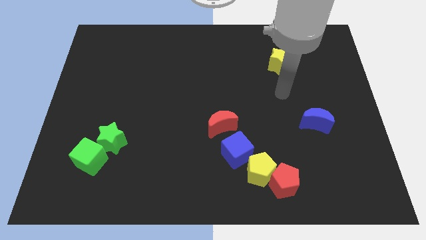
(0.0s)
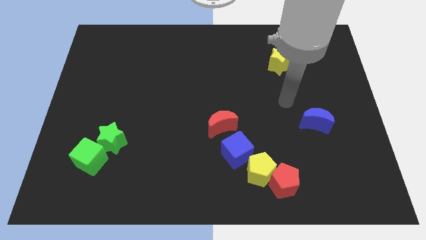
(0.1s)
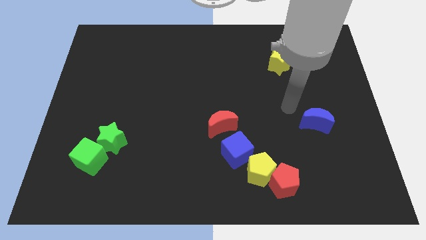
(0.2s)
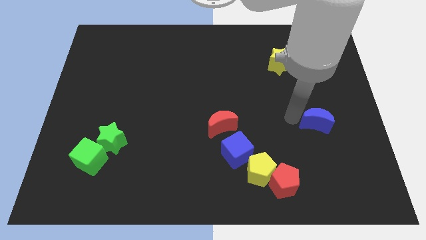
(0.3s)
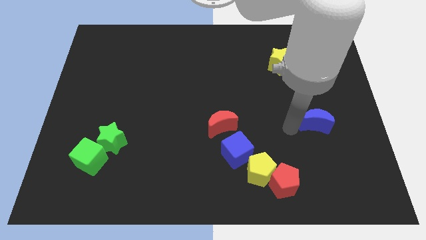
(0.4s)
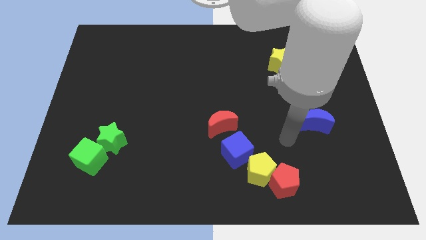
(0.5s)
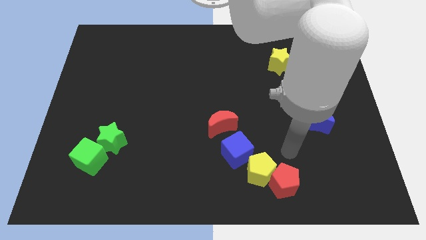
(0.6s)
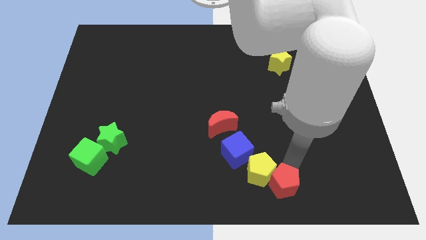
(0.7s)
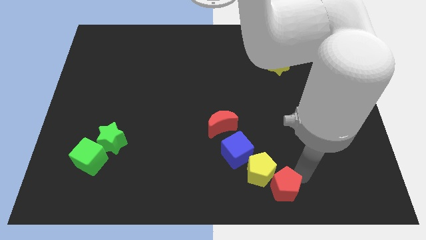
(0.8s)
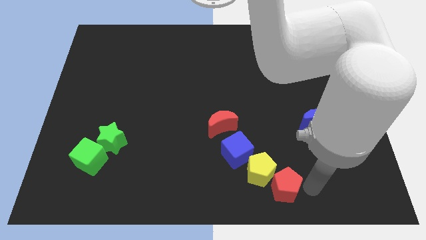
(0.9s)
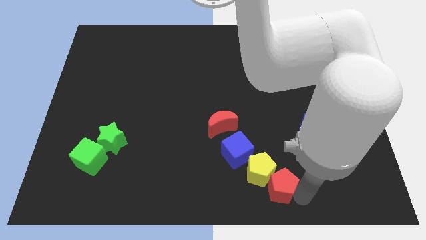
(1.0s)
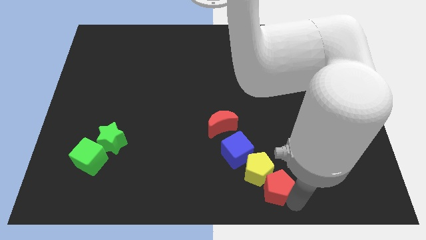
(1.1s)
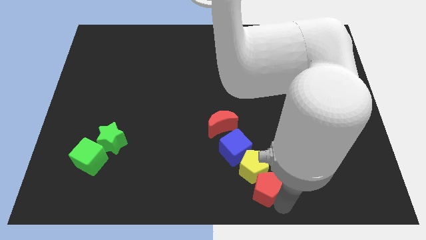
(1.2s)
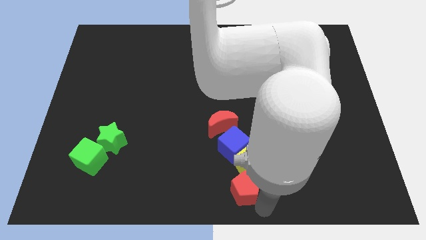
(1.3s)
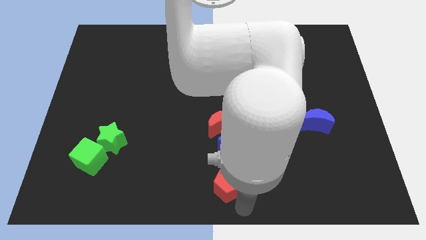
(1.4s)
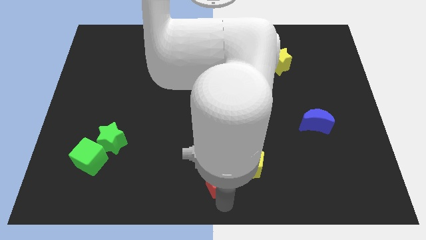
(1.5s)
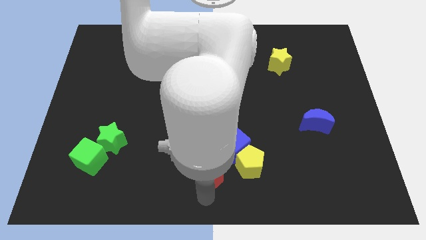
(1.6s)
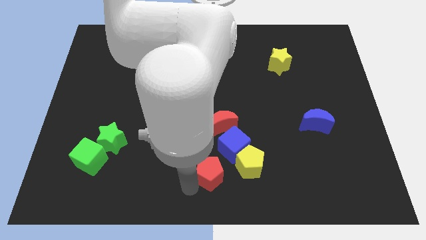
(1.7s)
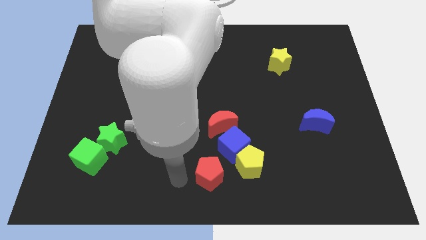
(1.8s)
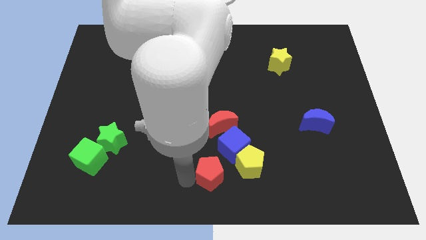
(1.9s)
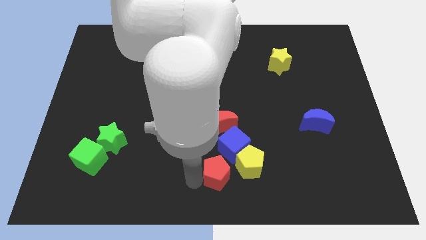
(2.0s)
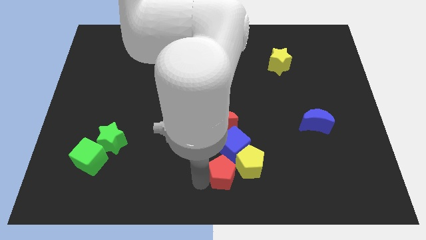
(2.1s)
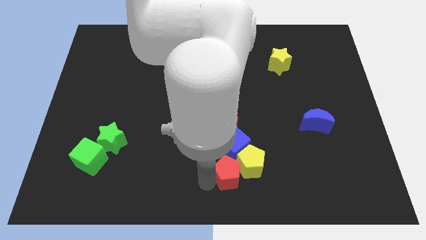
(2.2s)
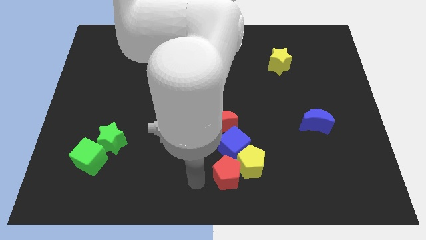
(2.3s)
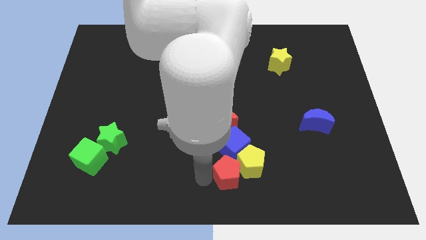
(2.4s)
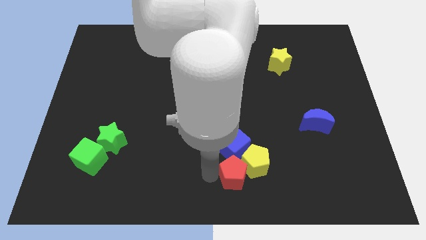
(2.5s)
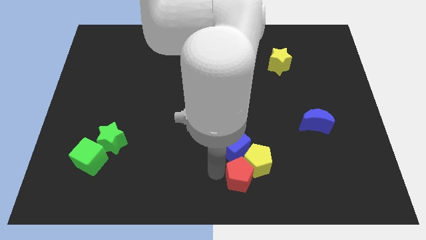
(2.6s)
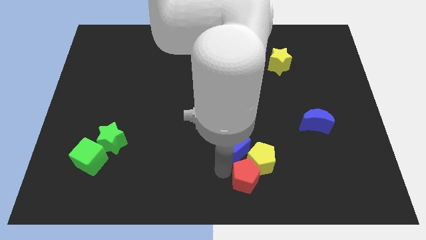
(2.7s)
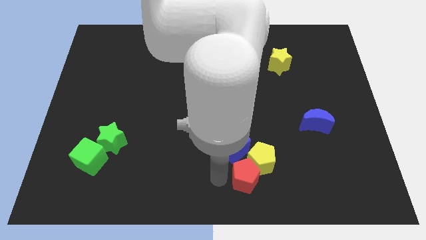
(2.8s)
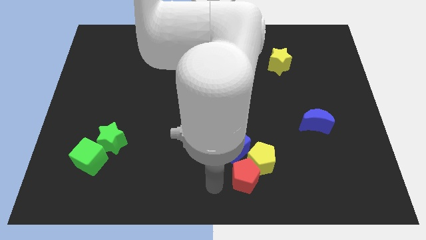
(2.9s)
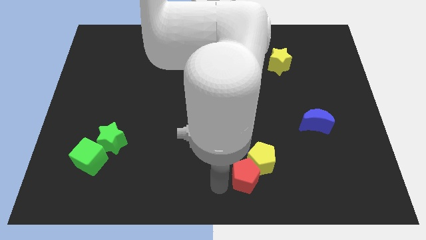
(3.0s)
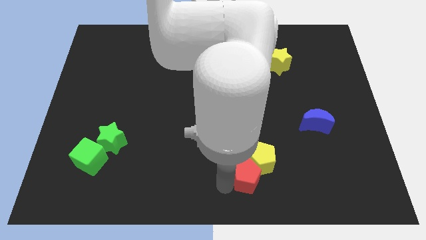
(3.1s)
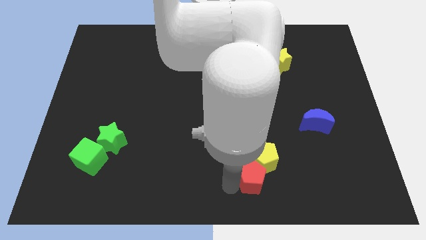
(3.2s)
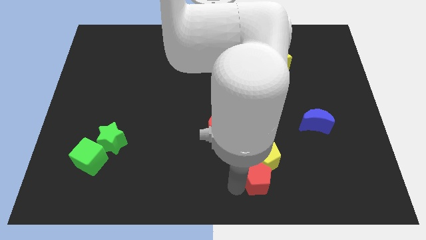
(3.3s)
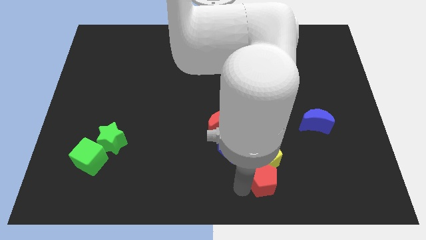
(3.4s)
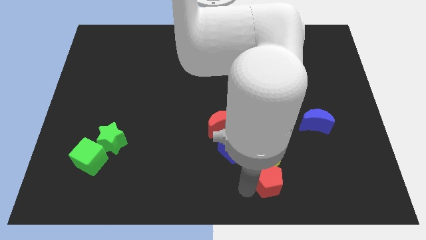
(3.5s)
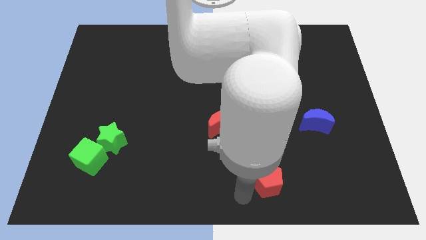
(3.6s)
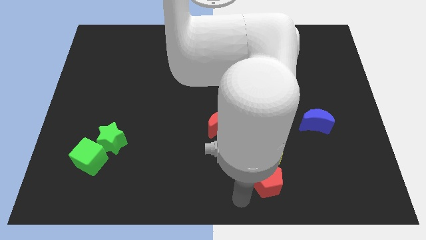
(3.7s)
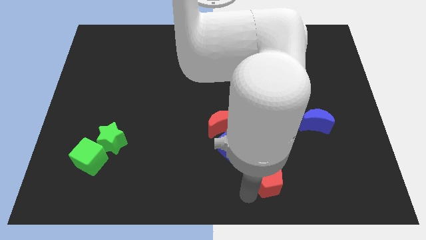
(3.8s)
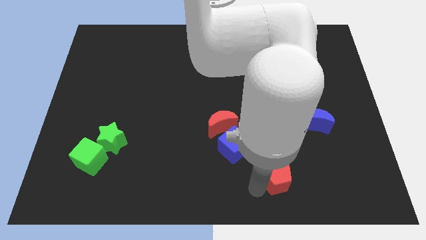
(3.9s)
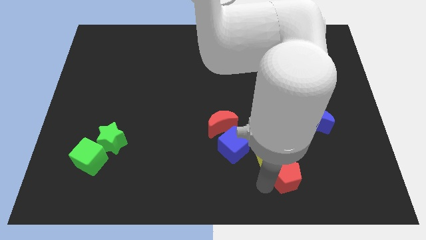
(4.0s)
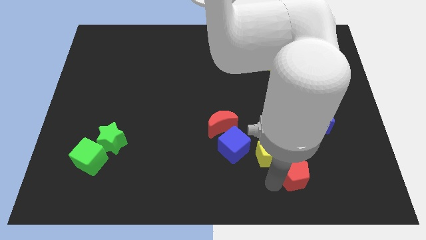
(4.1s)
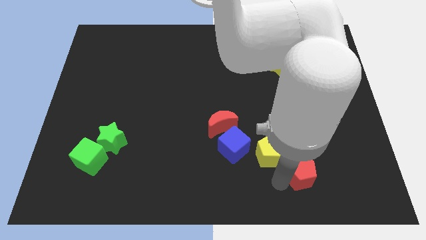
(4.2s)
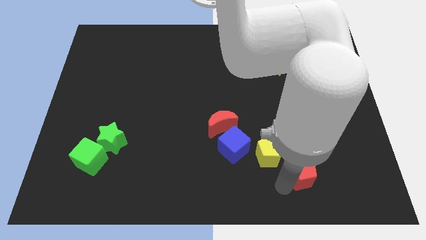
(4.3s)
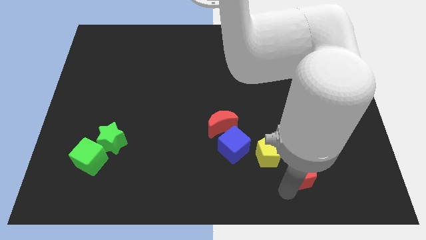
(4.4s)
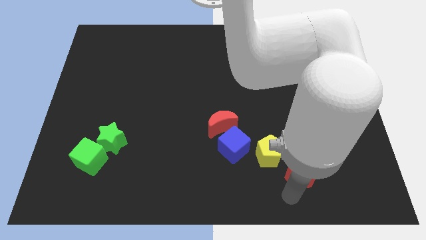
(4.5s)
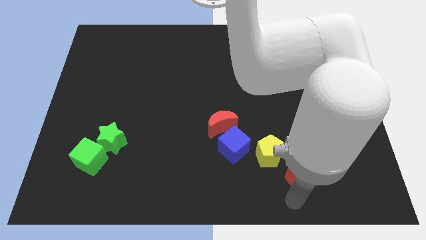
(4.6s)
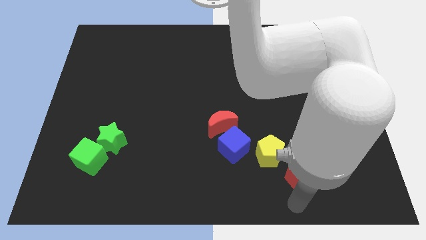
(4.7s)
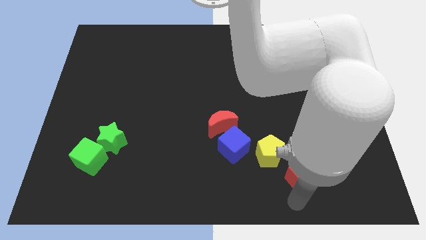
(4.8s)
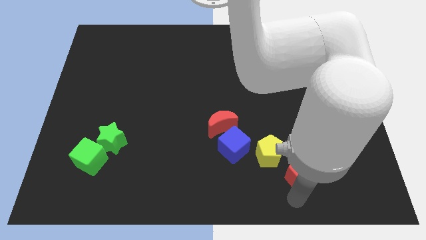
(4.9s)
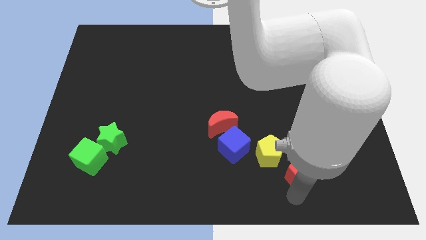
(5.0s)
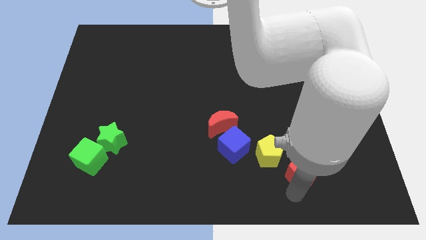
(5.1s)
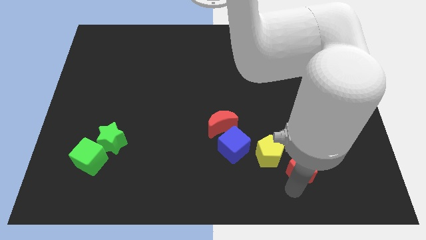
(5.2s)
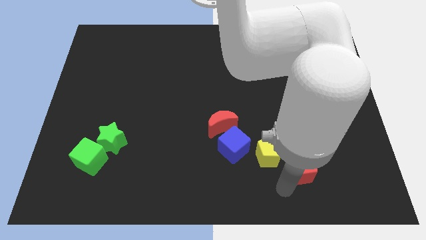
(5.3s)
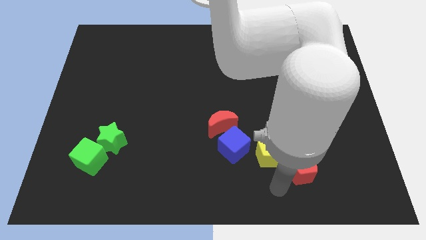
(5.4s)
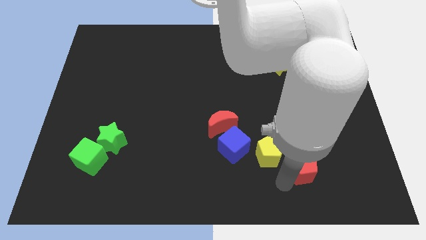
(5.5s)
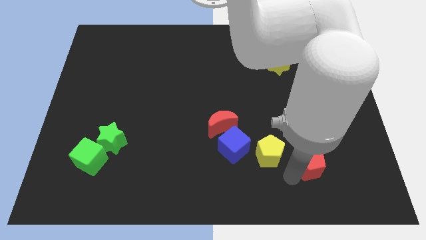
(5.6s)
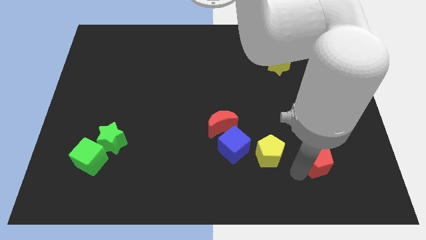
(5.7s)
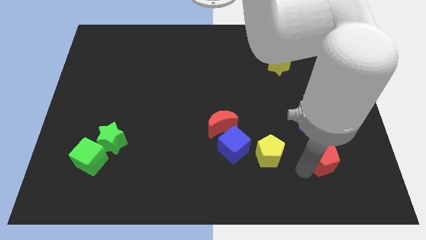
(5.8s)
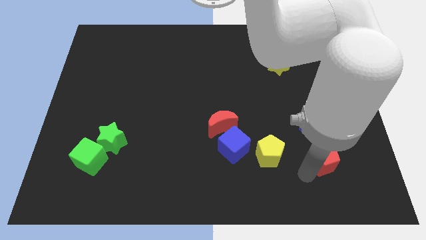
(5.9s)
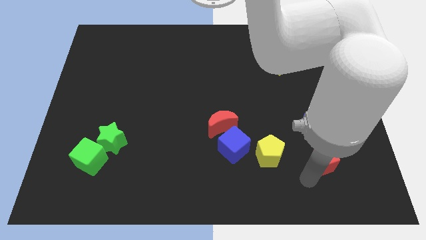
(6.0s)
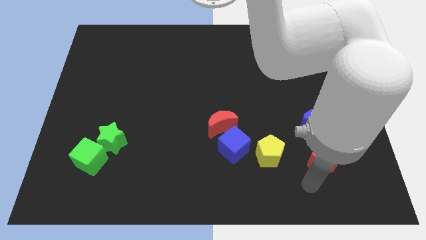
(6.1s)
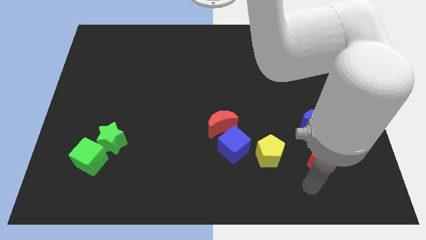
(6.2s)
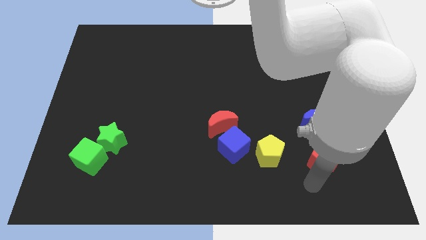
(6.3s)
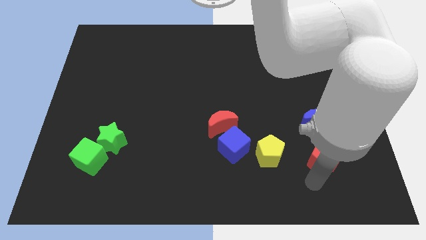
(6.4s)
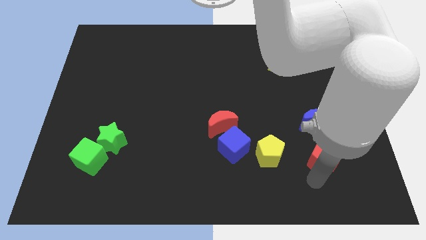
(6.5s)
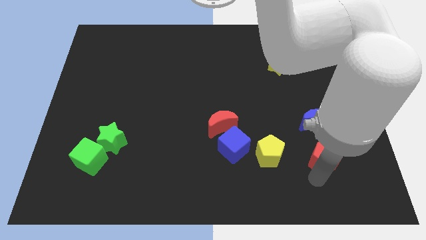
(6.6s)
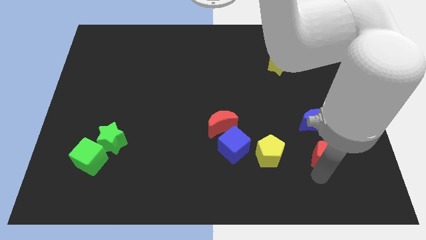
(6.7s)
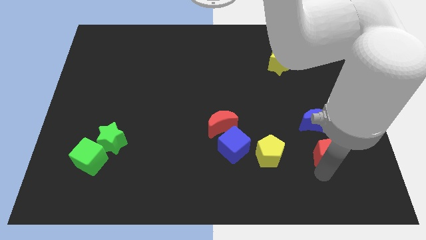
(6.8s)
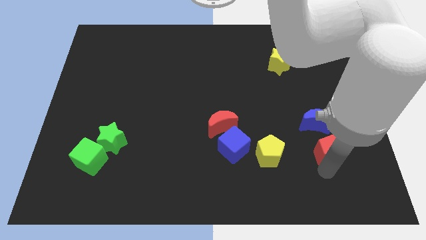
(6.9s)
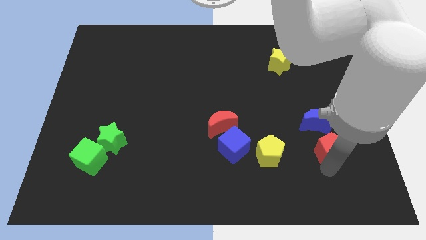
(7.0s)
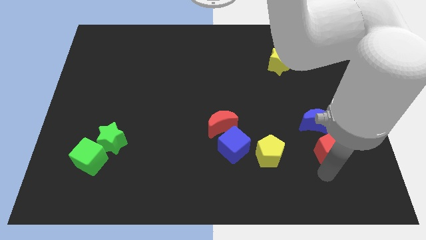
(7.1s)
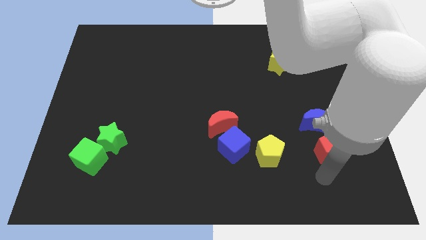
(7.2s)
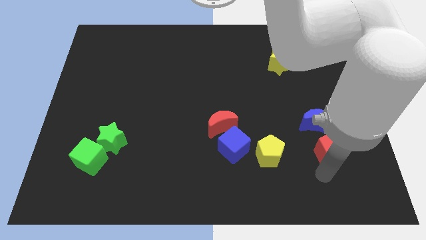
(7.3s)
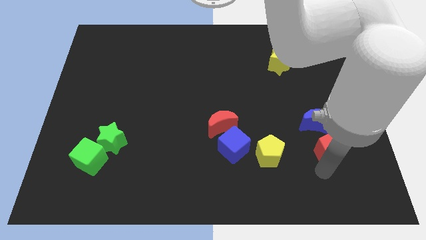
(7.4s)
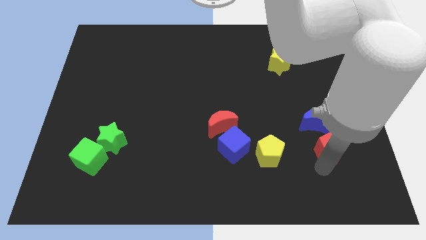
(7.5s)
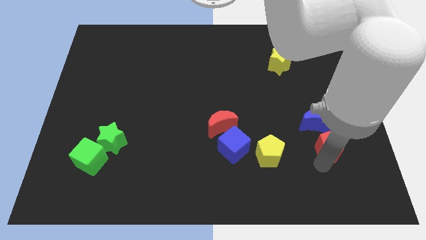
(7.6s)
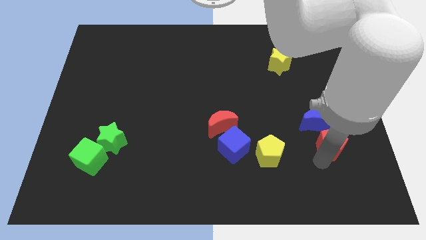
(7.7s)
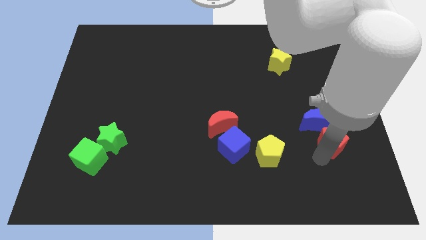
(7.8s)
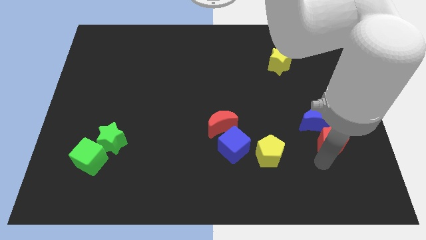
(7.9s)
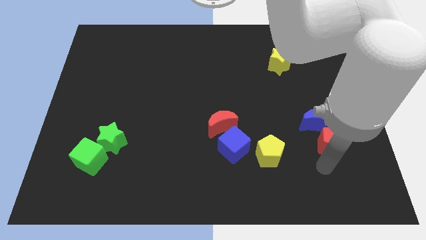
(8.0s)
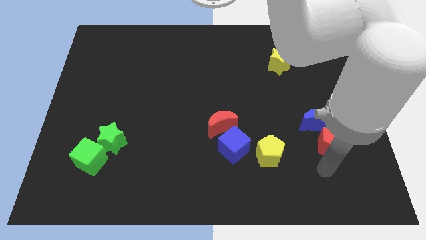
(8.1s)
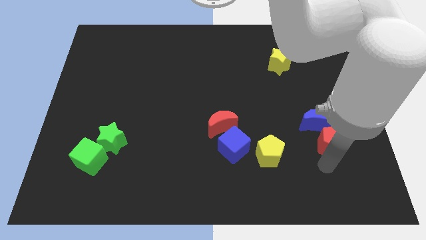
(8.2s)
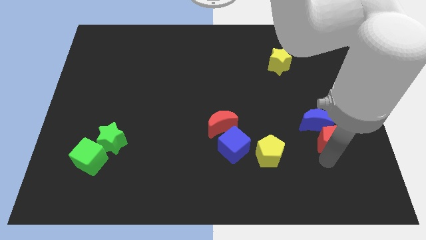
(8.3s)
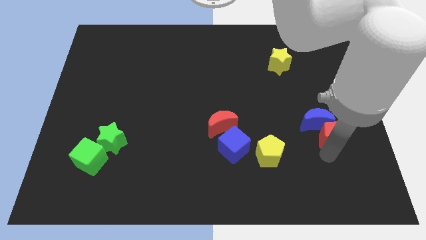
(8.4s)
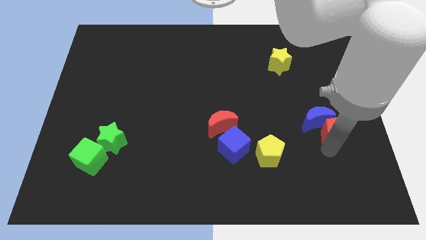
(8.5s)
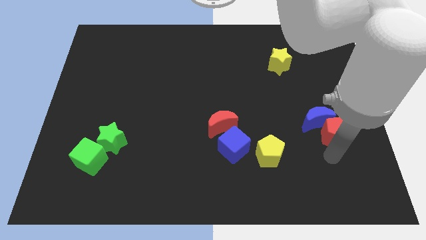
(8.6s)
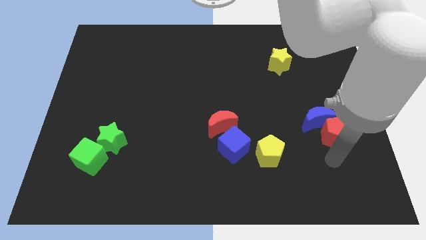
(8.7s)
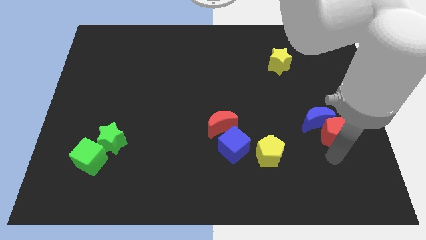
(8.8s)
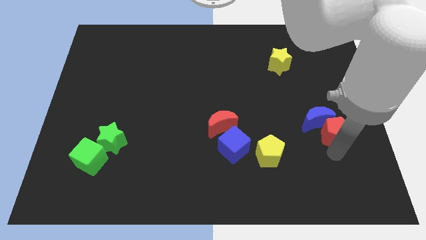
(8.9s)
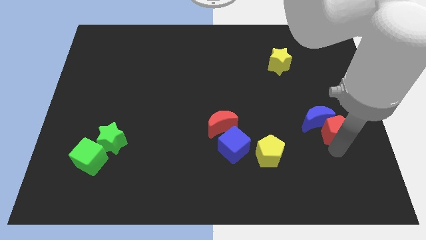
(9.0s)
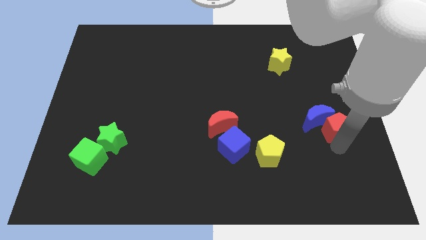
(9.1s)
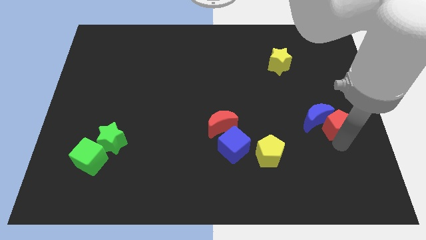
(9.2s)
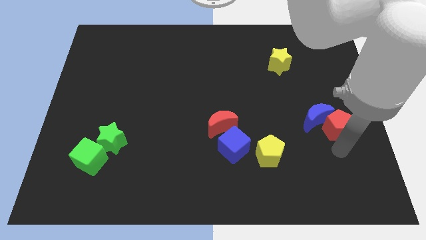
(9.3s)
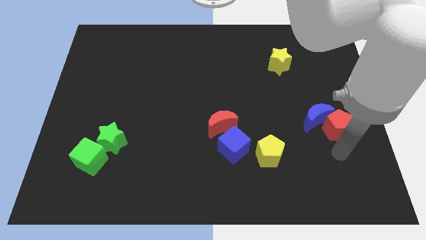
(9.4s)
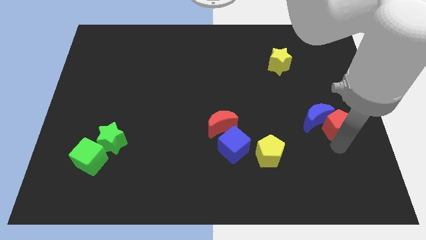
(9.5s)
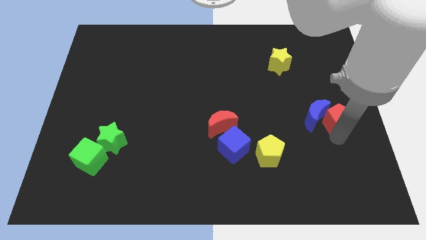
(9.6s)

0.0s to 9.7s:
push the red pentagon diagonally up and to the right of the blue moon
